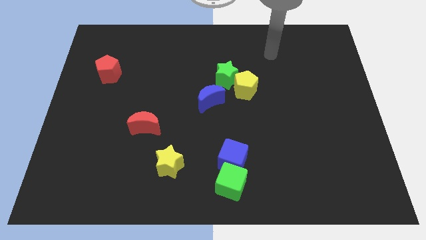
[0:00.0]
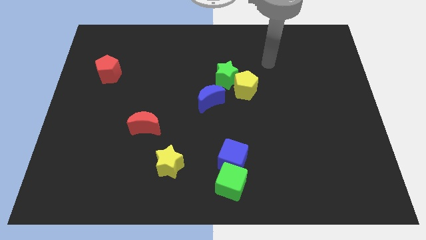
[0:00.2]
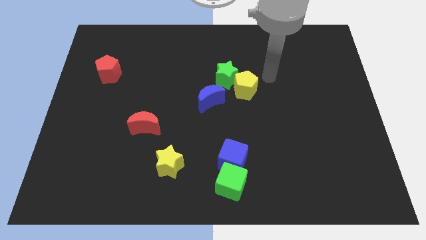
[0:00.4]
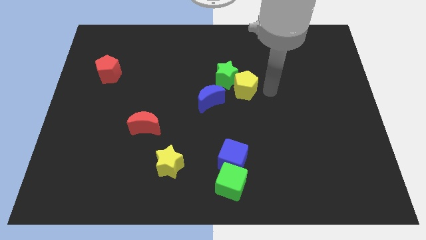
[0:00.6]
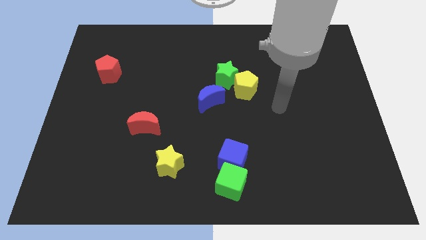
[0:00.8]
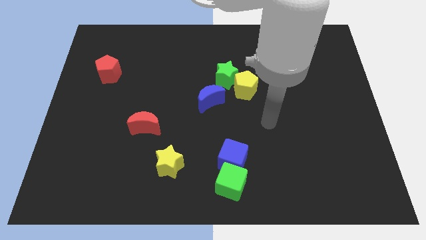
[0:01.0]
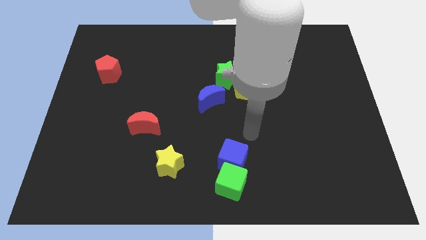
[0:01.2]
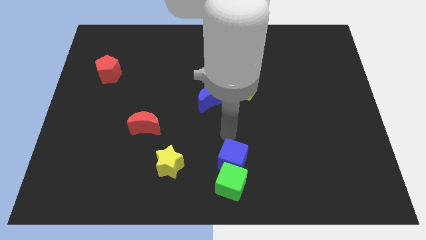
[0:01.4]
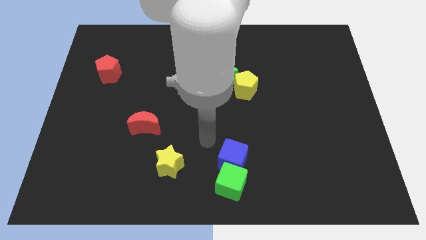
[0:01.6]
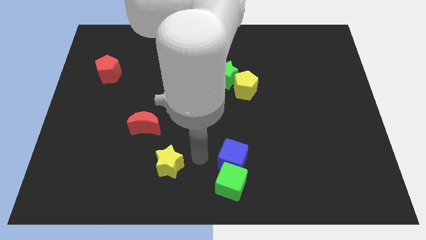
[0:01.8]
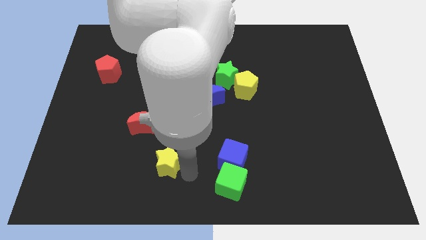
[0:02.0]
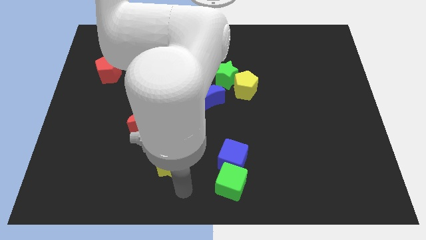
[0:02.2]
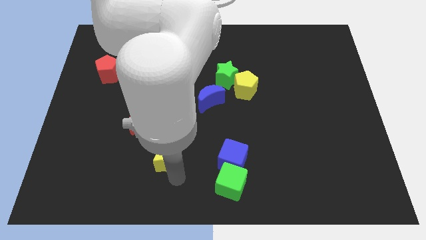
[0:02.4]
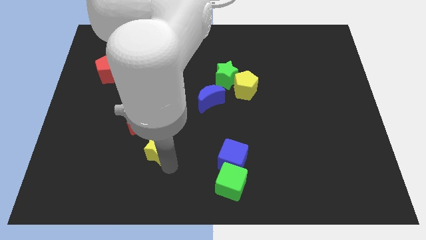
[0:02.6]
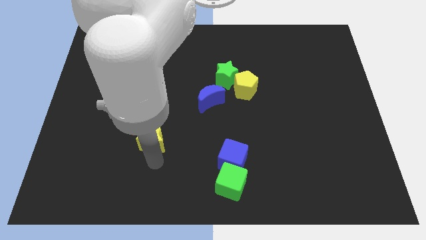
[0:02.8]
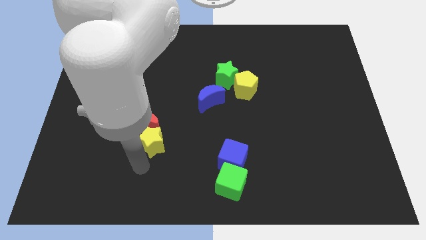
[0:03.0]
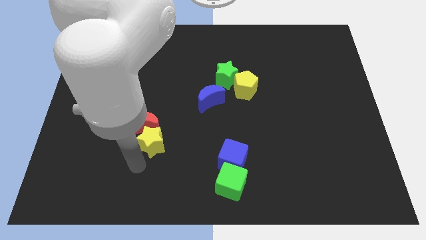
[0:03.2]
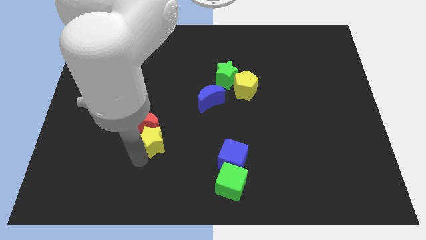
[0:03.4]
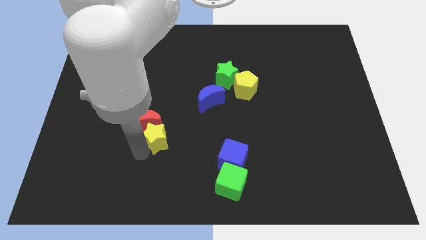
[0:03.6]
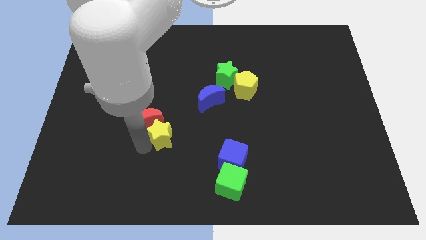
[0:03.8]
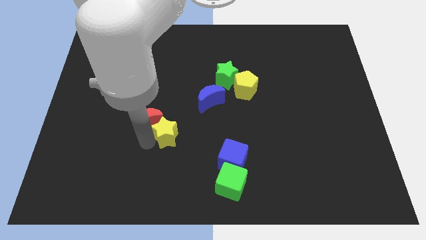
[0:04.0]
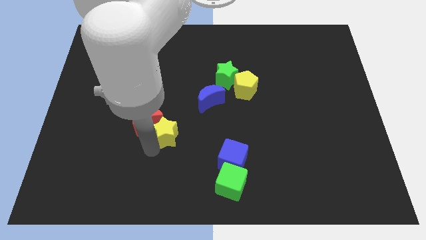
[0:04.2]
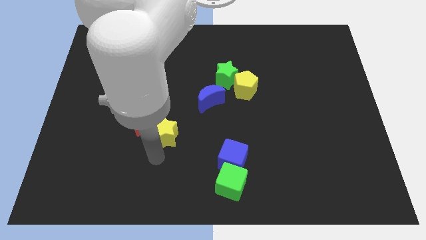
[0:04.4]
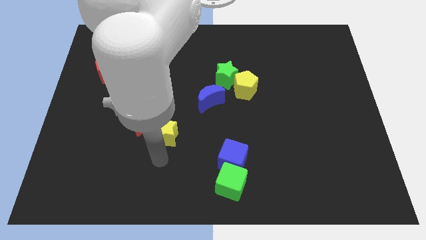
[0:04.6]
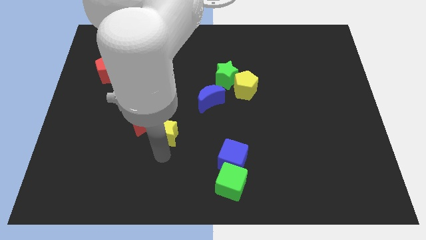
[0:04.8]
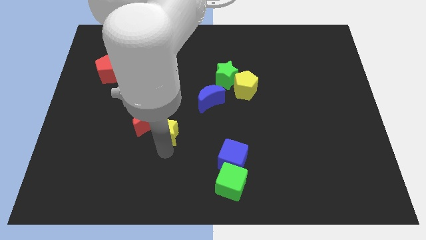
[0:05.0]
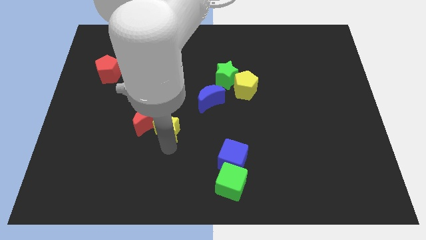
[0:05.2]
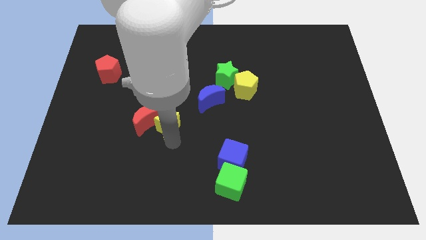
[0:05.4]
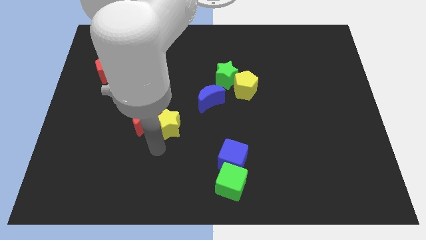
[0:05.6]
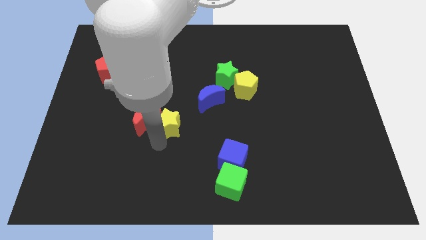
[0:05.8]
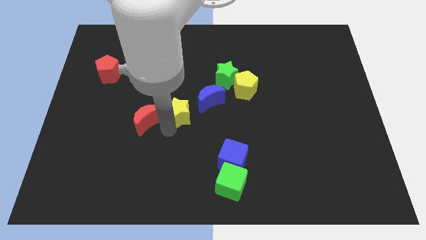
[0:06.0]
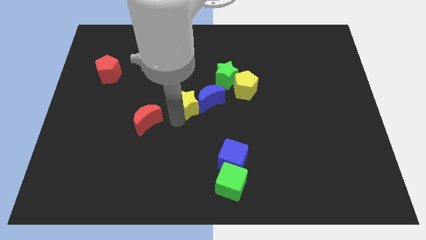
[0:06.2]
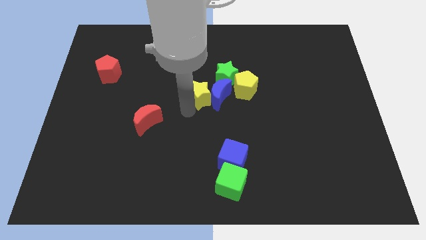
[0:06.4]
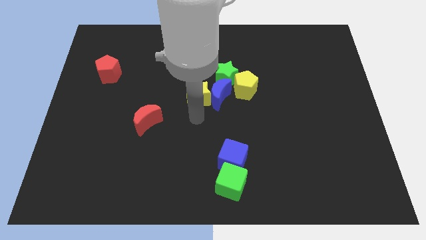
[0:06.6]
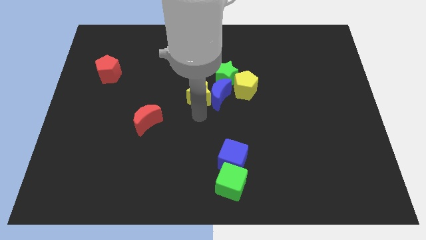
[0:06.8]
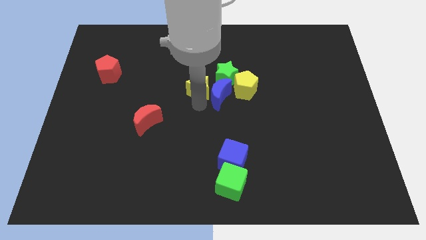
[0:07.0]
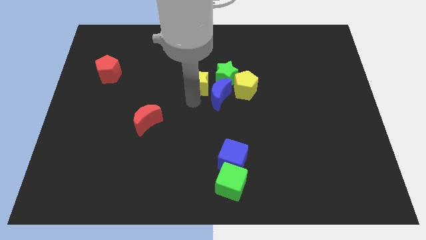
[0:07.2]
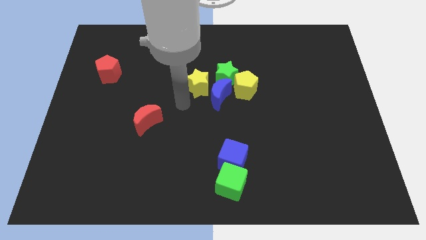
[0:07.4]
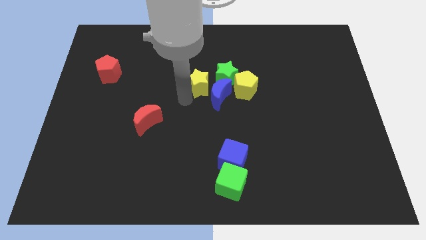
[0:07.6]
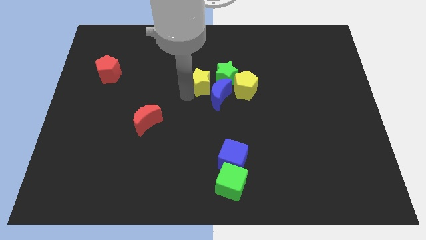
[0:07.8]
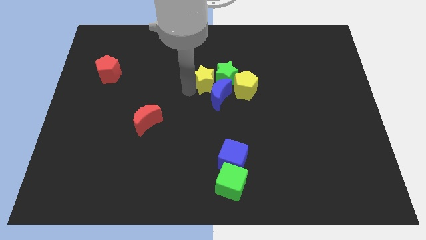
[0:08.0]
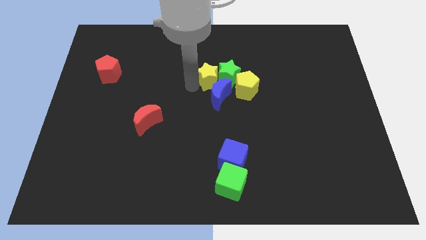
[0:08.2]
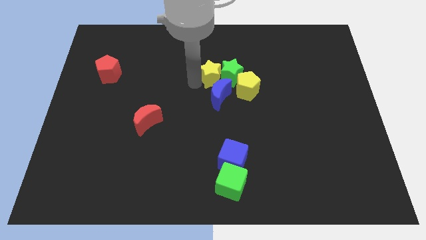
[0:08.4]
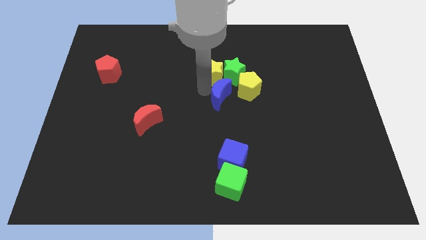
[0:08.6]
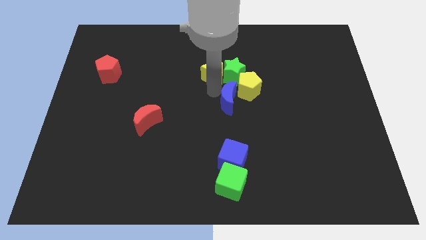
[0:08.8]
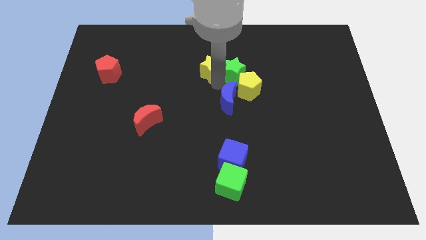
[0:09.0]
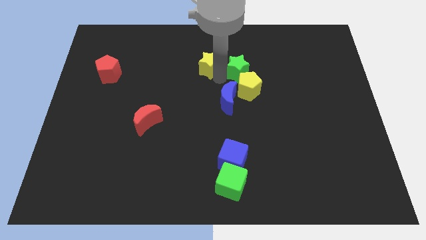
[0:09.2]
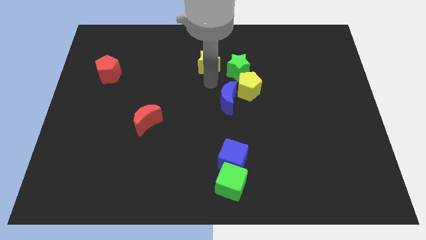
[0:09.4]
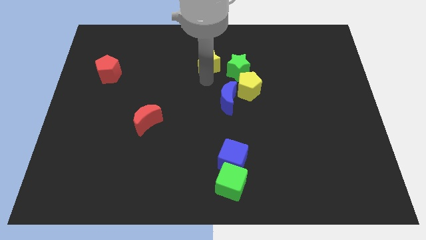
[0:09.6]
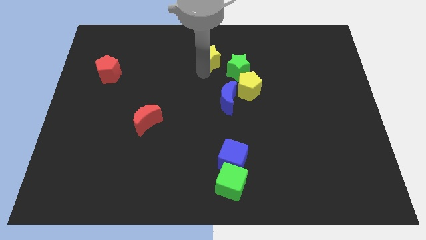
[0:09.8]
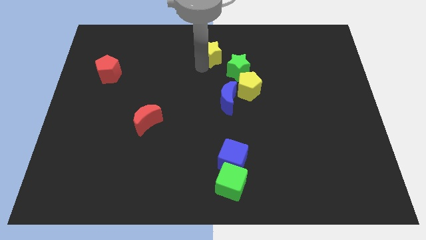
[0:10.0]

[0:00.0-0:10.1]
slide the yellow star to the towards your base

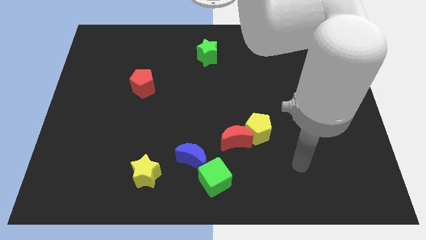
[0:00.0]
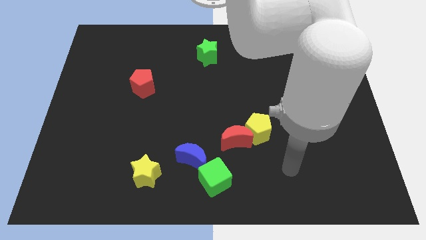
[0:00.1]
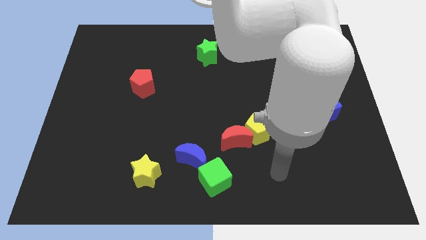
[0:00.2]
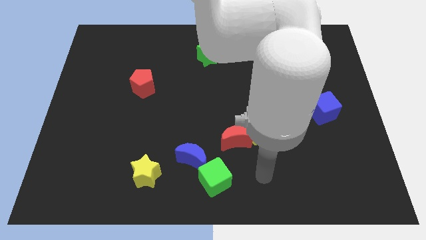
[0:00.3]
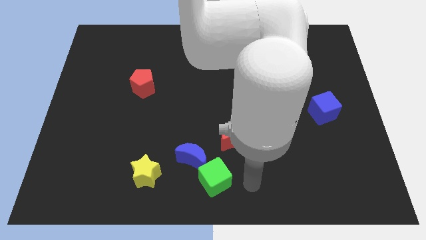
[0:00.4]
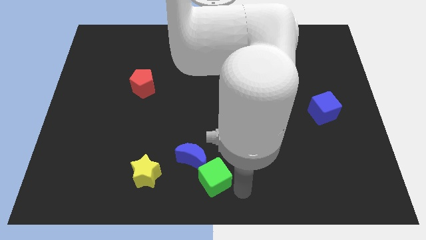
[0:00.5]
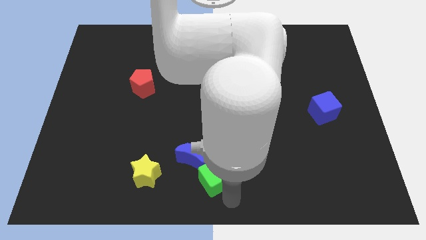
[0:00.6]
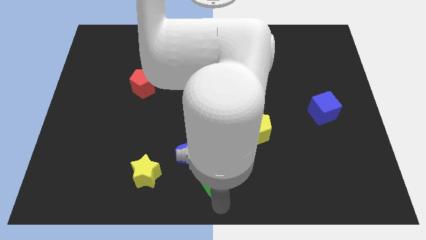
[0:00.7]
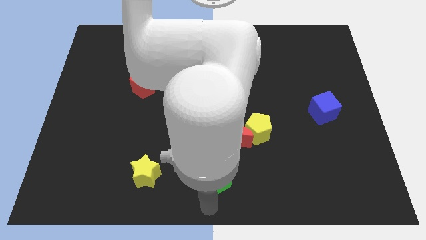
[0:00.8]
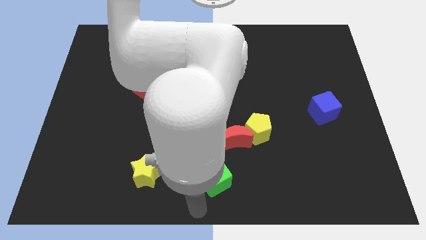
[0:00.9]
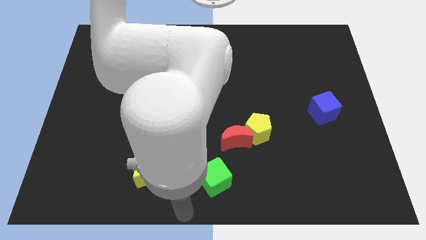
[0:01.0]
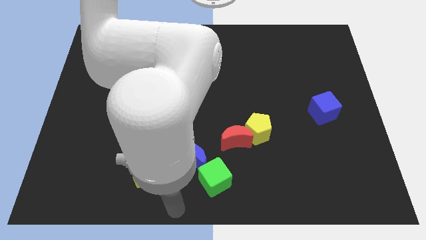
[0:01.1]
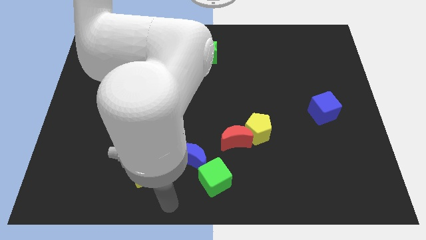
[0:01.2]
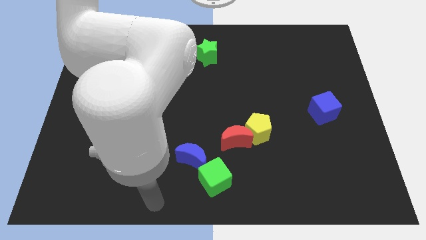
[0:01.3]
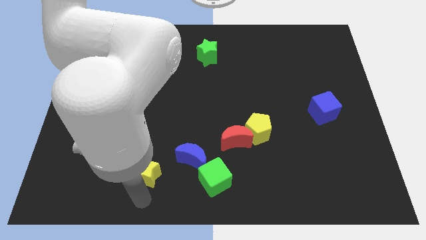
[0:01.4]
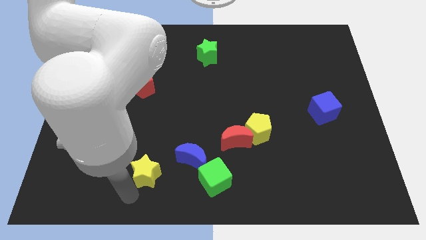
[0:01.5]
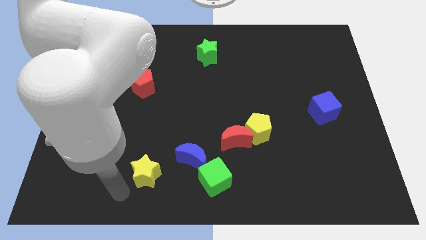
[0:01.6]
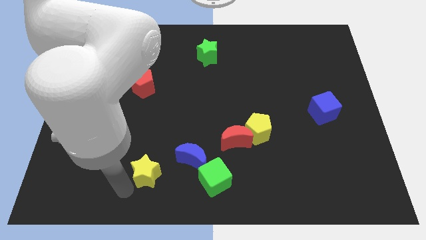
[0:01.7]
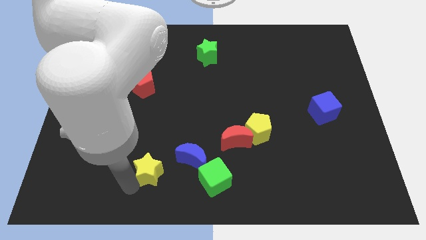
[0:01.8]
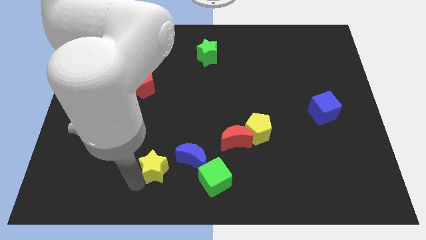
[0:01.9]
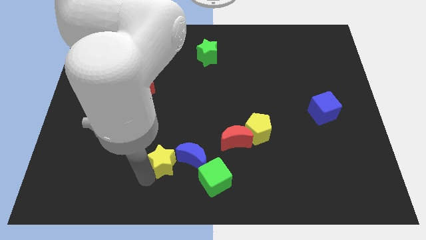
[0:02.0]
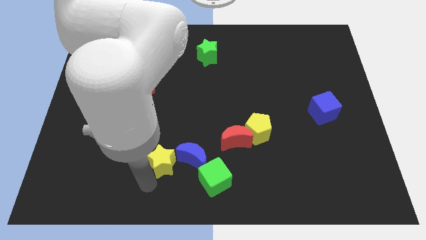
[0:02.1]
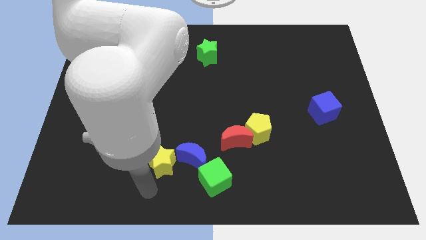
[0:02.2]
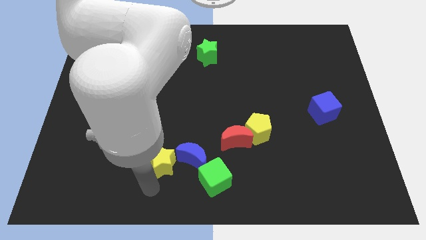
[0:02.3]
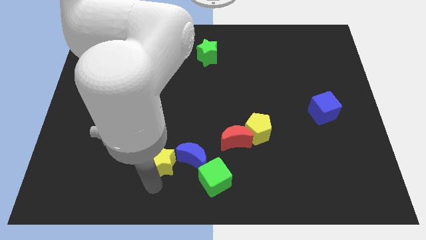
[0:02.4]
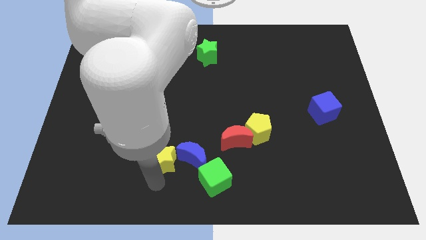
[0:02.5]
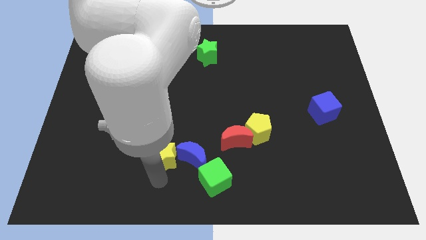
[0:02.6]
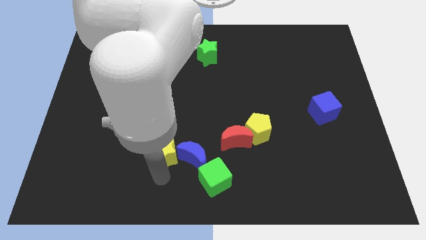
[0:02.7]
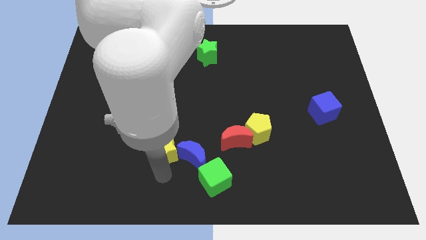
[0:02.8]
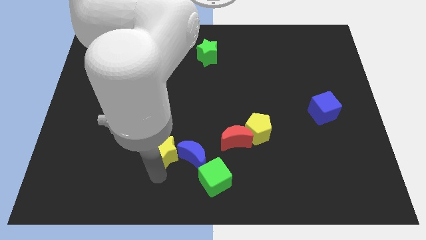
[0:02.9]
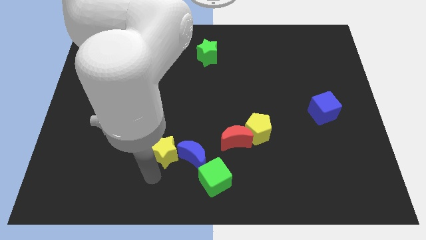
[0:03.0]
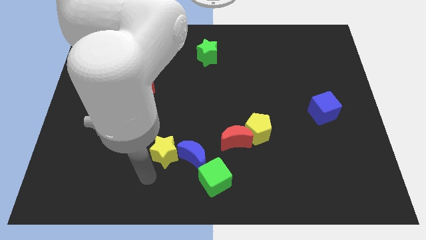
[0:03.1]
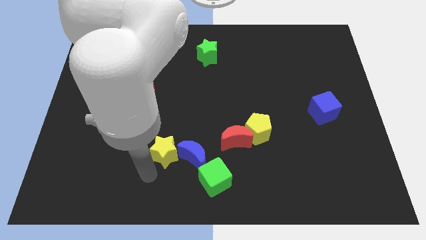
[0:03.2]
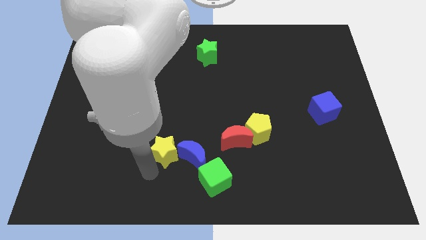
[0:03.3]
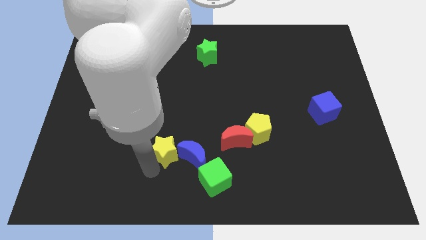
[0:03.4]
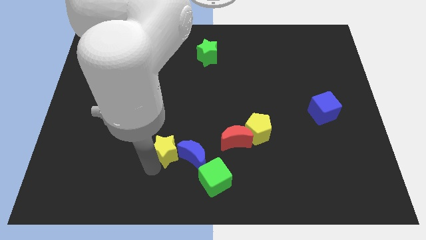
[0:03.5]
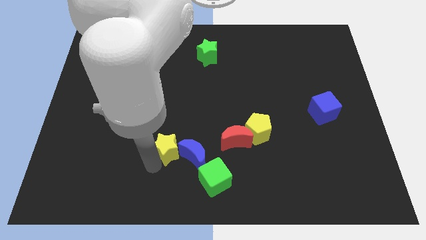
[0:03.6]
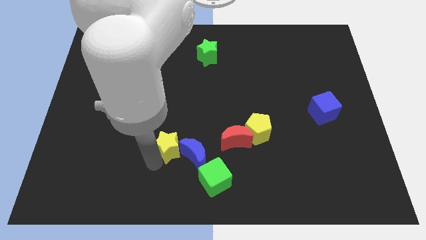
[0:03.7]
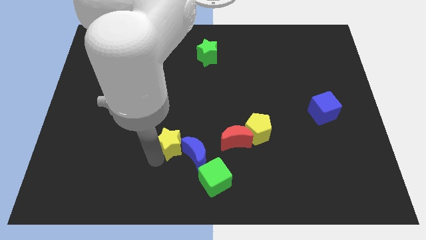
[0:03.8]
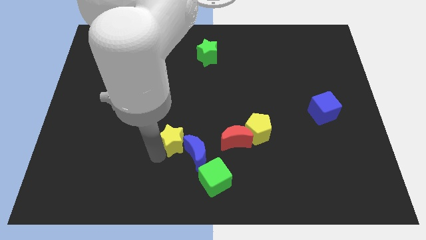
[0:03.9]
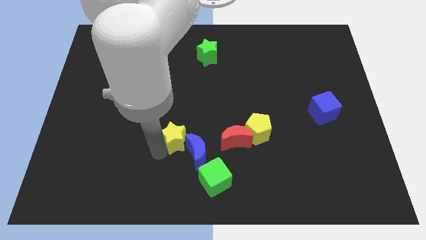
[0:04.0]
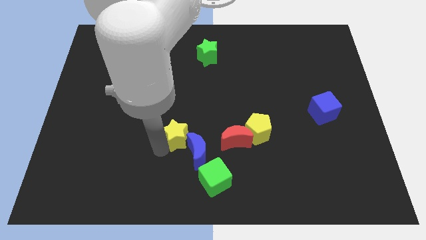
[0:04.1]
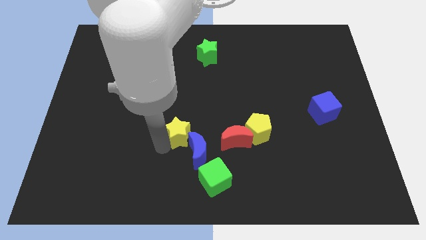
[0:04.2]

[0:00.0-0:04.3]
slide the yellow star to the middle of the board
